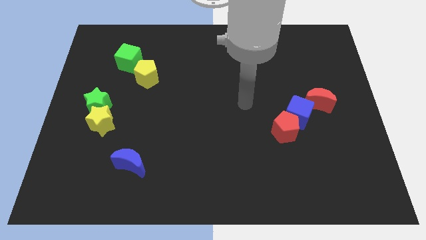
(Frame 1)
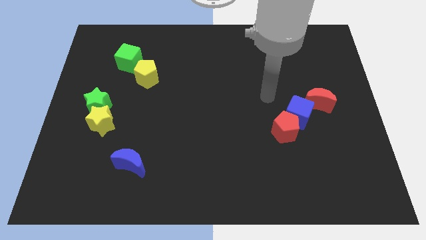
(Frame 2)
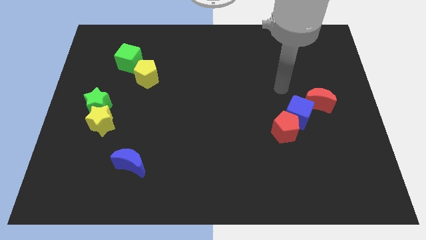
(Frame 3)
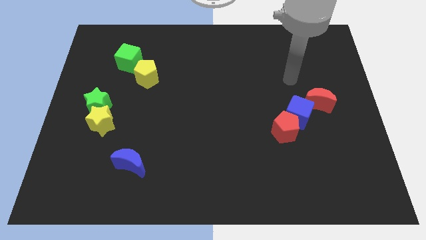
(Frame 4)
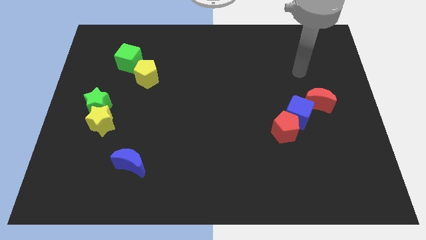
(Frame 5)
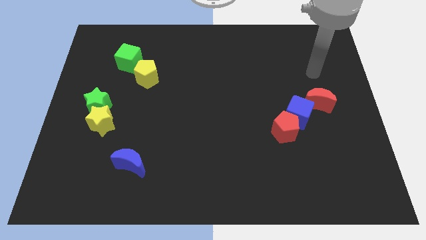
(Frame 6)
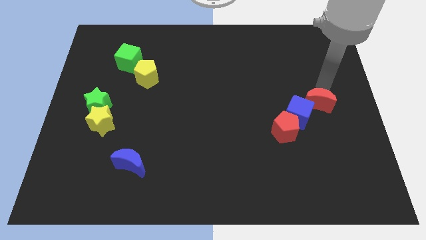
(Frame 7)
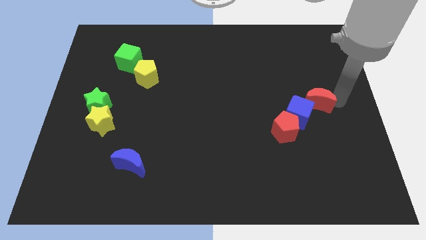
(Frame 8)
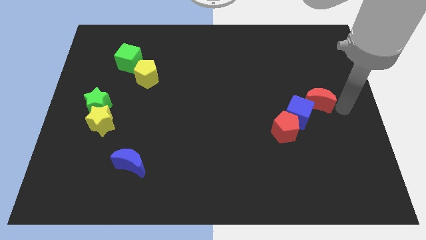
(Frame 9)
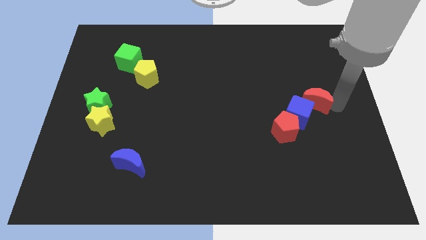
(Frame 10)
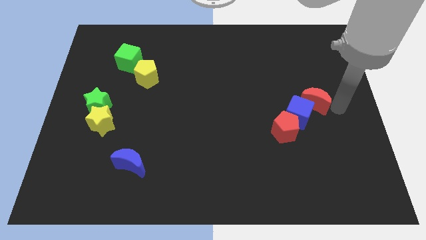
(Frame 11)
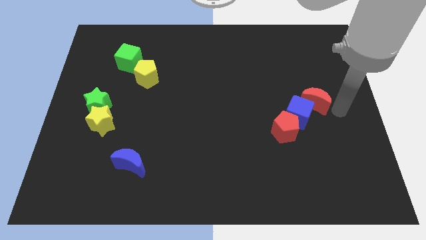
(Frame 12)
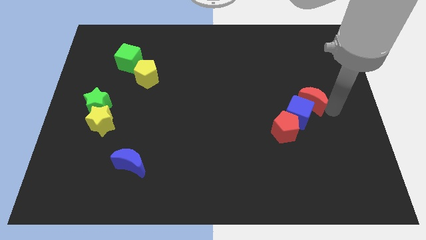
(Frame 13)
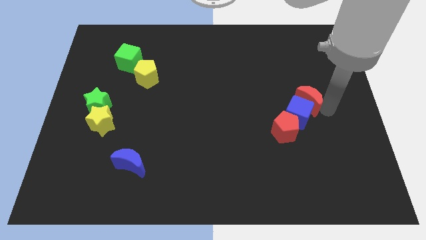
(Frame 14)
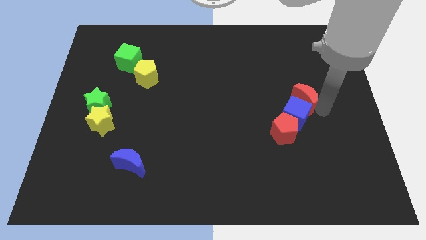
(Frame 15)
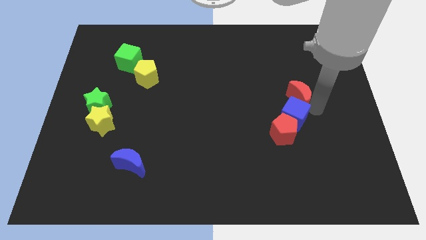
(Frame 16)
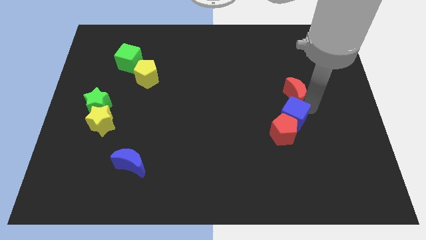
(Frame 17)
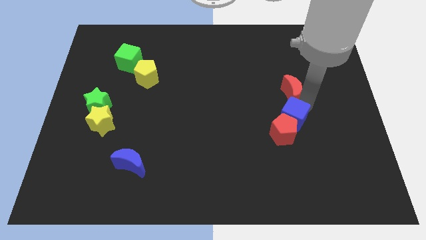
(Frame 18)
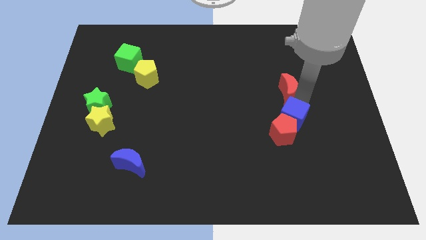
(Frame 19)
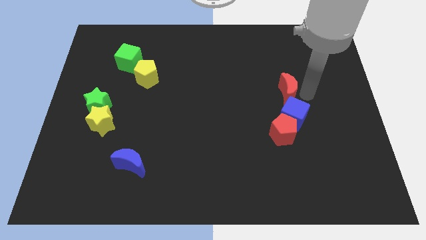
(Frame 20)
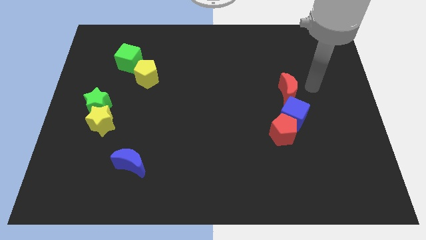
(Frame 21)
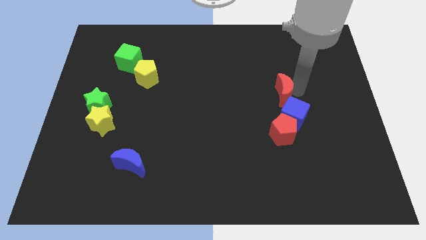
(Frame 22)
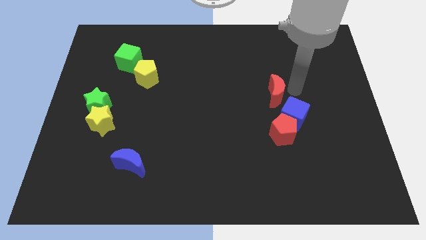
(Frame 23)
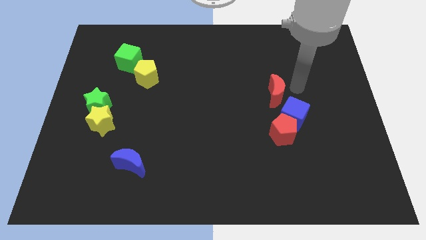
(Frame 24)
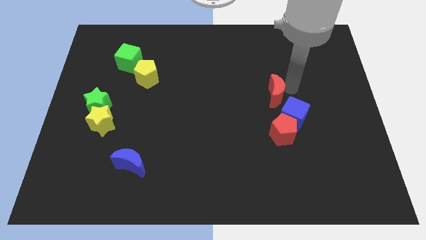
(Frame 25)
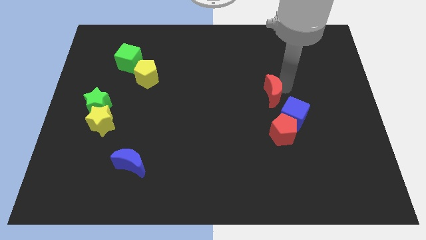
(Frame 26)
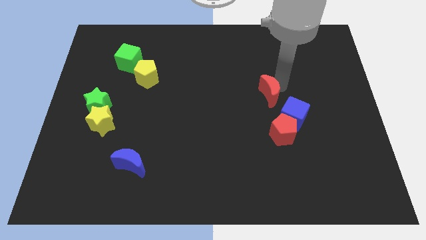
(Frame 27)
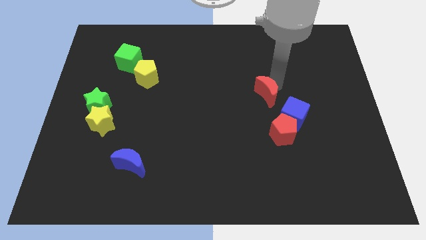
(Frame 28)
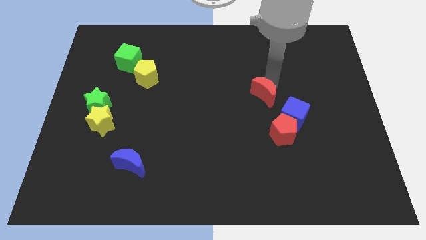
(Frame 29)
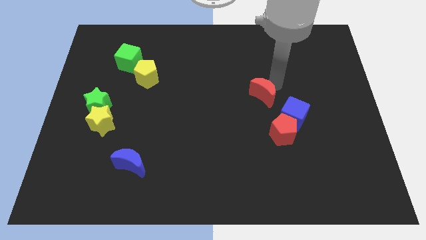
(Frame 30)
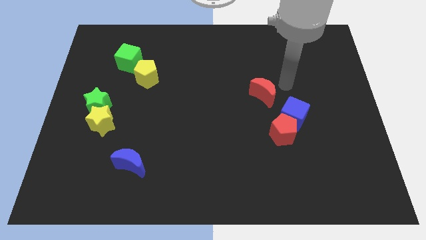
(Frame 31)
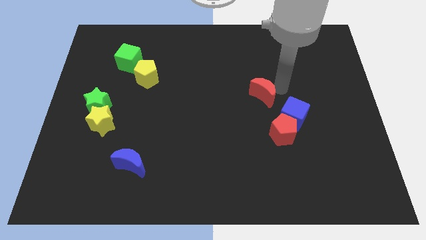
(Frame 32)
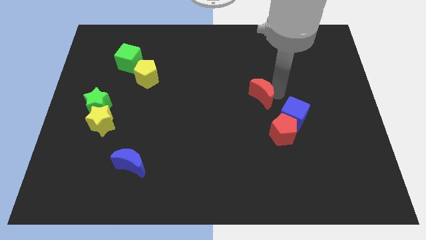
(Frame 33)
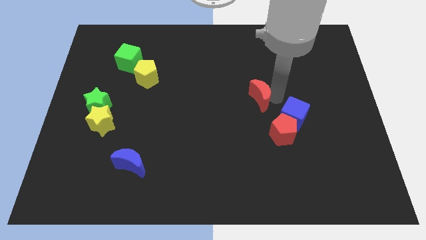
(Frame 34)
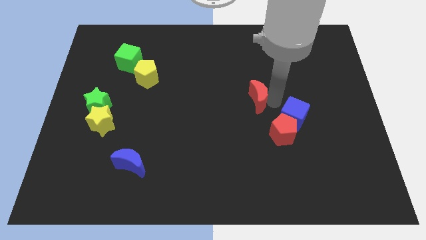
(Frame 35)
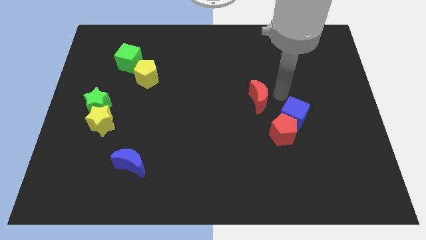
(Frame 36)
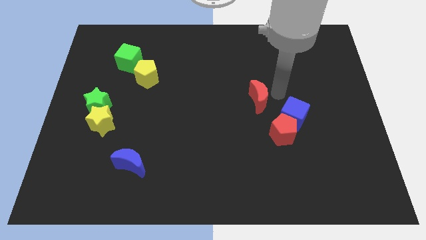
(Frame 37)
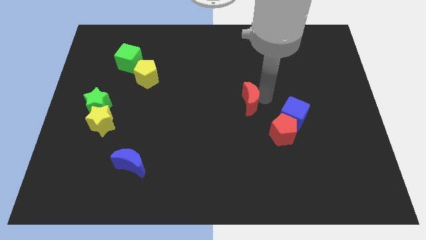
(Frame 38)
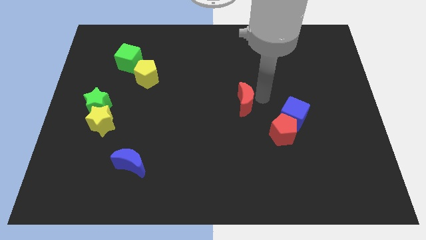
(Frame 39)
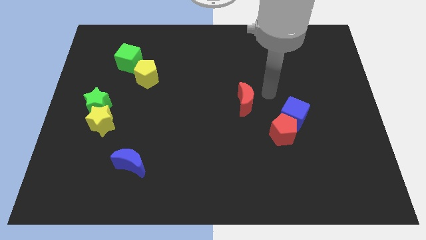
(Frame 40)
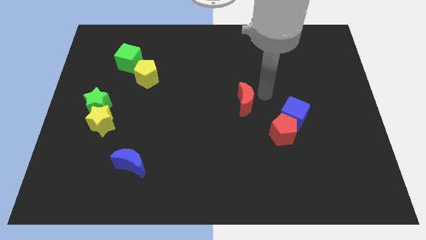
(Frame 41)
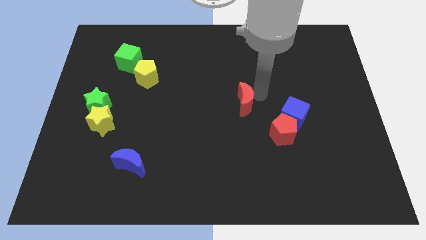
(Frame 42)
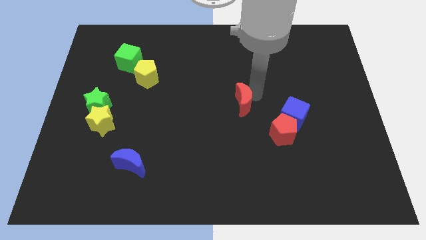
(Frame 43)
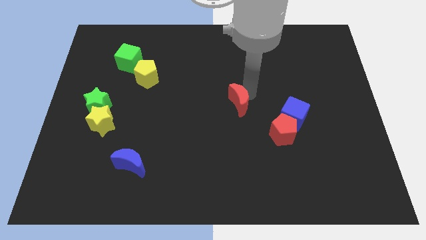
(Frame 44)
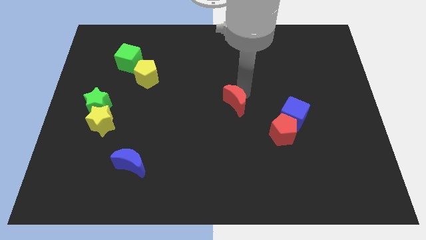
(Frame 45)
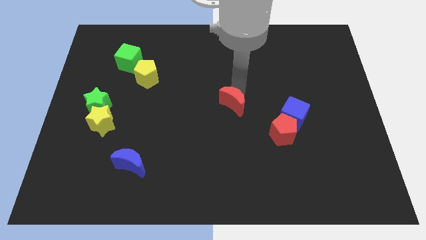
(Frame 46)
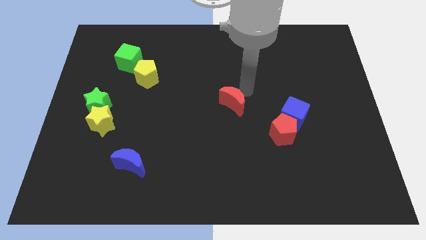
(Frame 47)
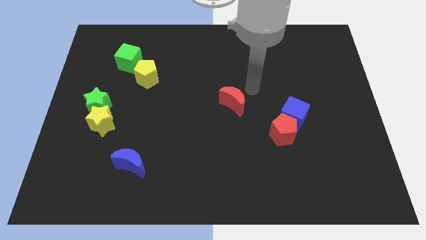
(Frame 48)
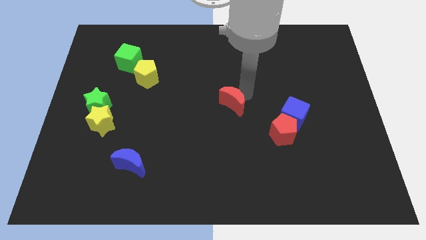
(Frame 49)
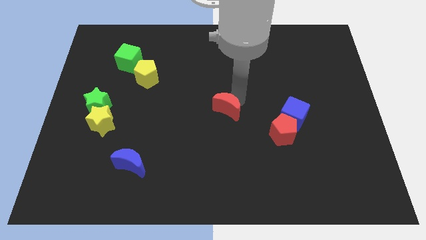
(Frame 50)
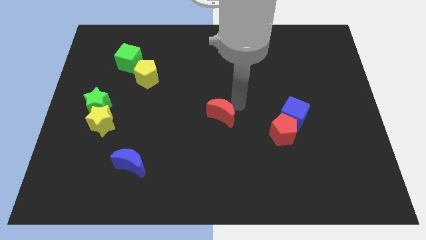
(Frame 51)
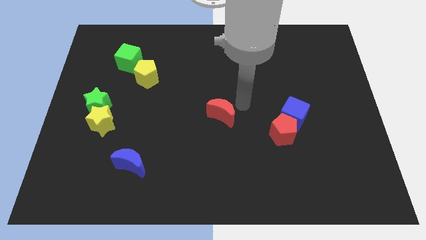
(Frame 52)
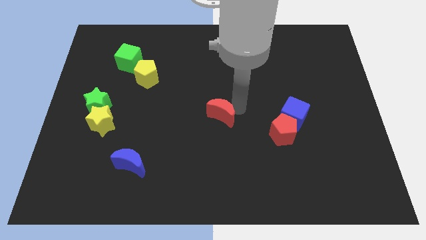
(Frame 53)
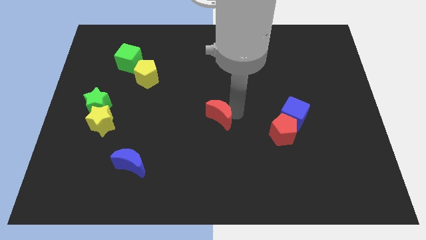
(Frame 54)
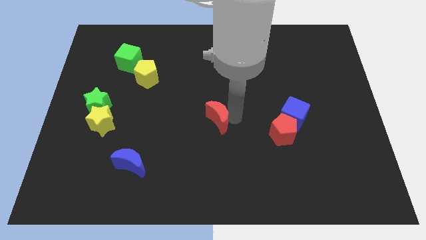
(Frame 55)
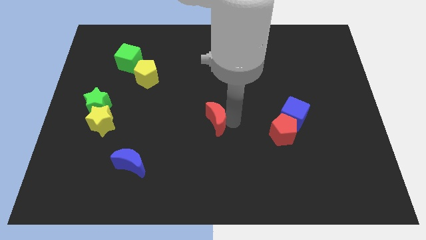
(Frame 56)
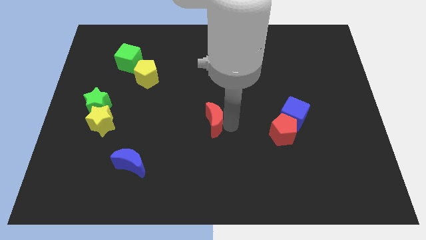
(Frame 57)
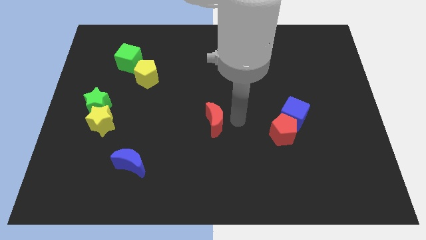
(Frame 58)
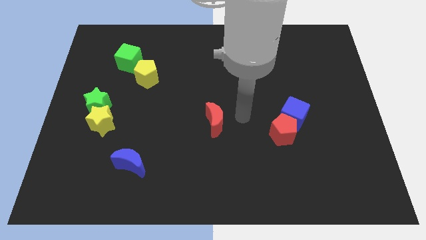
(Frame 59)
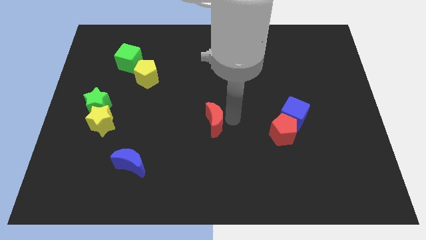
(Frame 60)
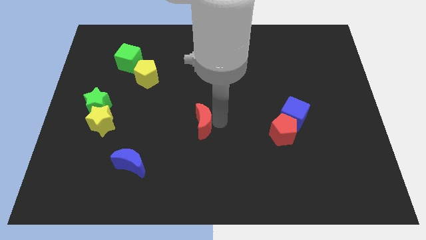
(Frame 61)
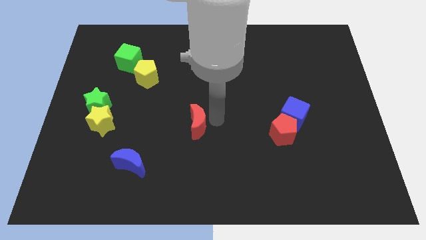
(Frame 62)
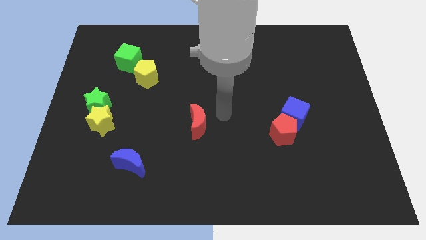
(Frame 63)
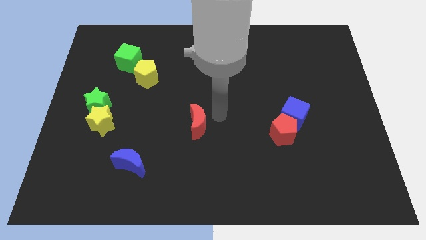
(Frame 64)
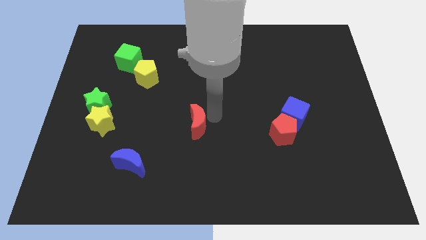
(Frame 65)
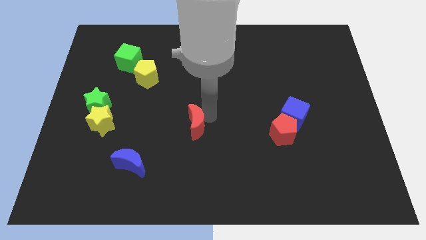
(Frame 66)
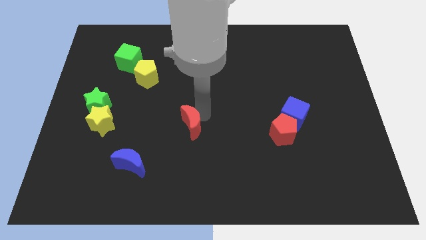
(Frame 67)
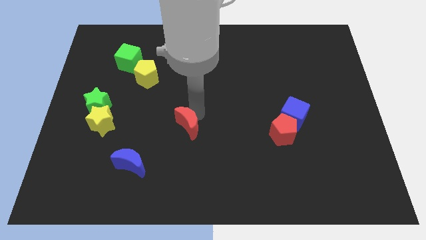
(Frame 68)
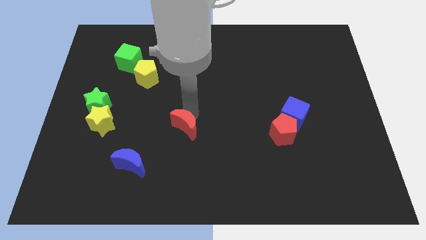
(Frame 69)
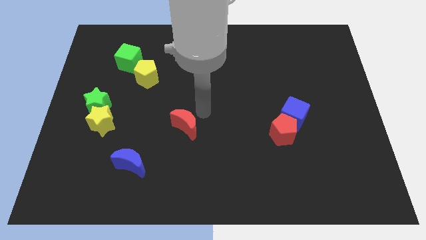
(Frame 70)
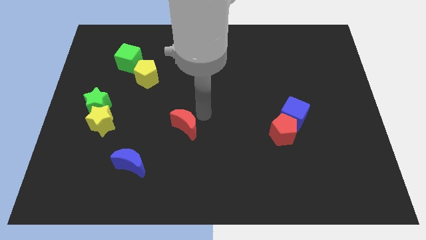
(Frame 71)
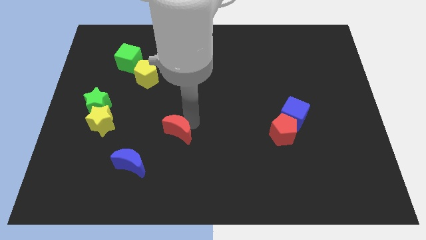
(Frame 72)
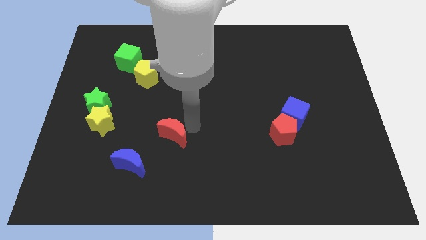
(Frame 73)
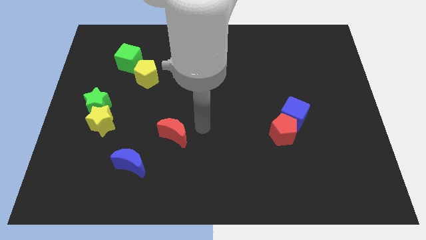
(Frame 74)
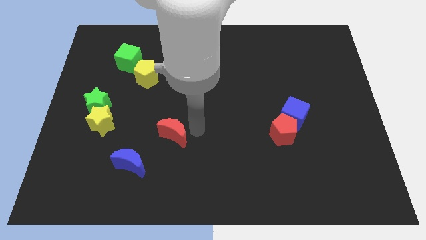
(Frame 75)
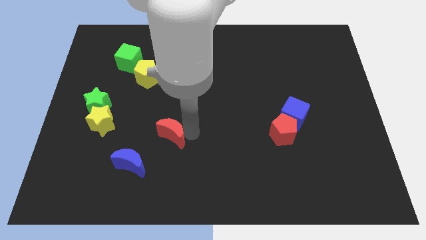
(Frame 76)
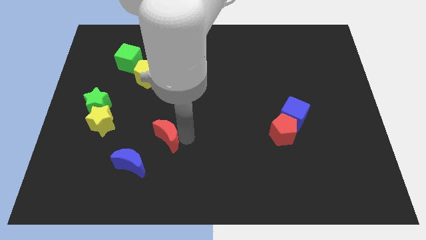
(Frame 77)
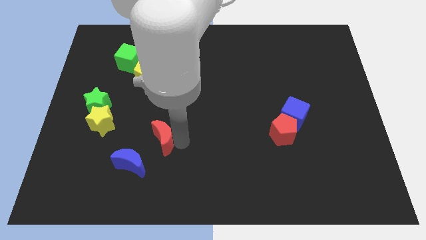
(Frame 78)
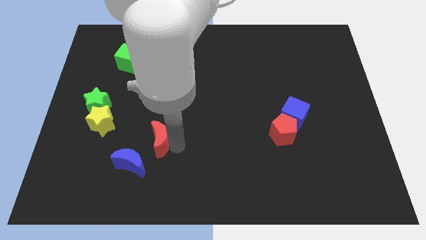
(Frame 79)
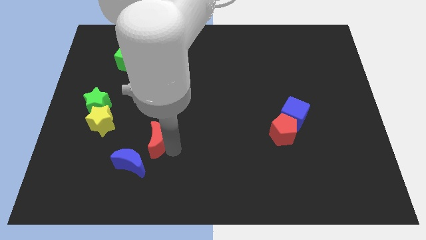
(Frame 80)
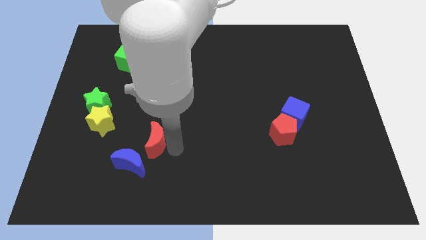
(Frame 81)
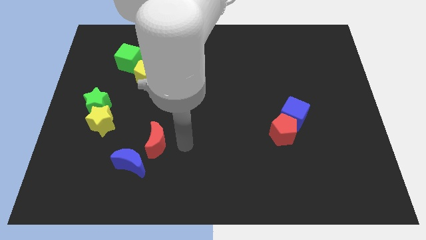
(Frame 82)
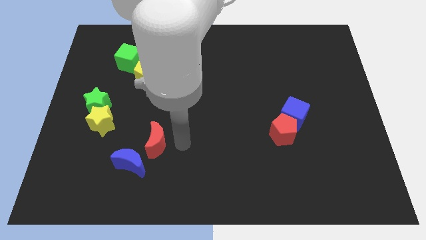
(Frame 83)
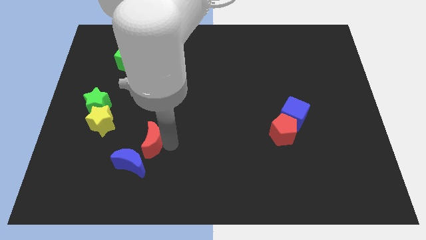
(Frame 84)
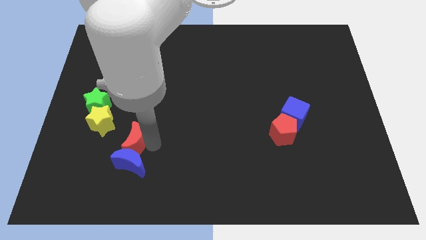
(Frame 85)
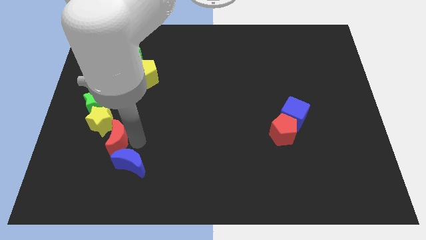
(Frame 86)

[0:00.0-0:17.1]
push the red moon below the yellow star
